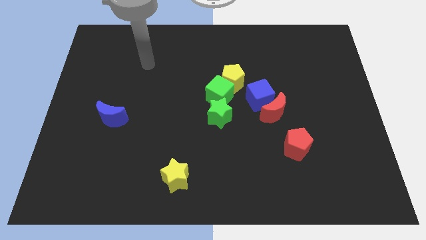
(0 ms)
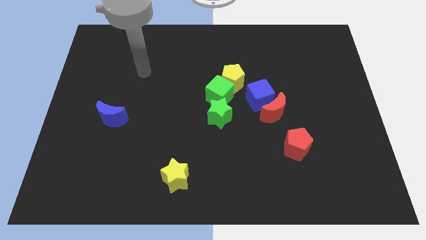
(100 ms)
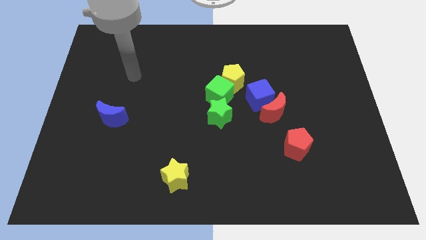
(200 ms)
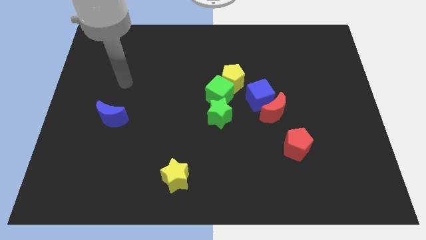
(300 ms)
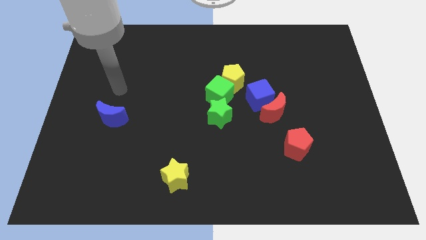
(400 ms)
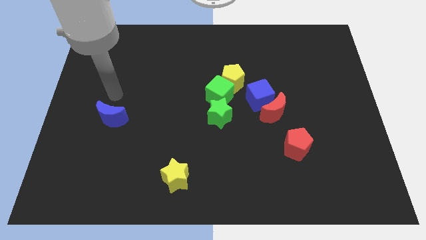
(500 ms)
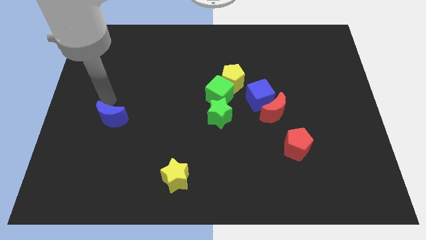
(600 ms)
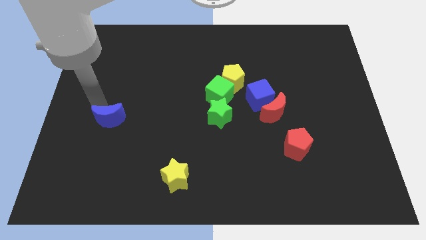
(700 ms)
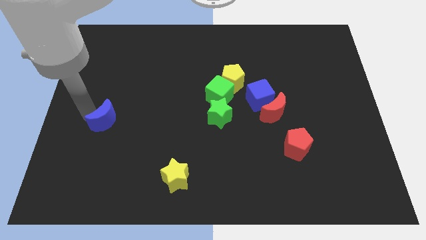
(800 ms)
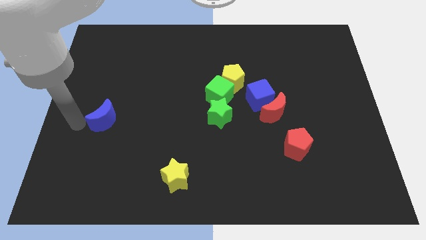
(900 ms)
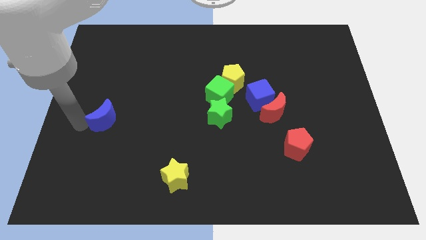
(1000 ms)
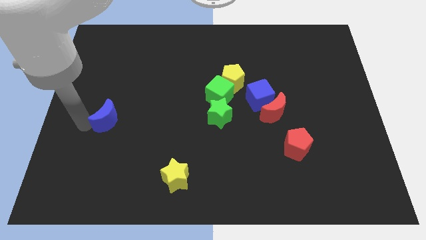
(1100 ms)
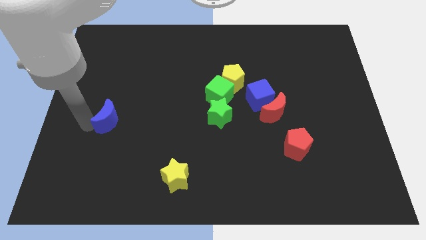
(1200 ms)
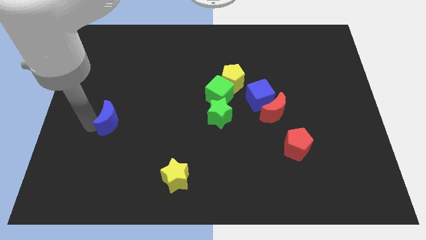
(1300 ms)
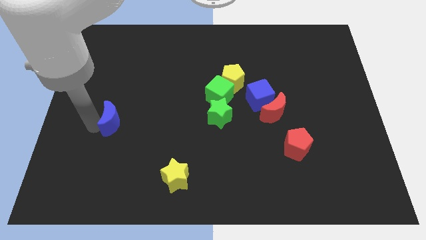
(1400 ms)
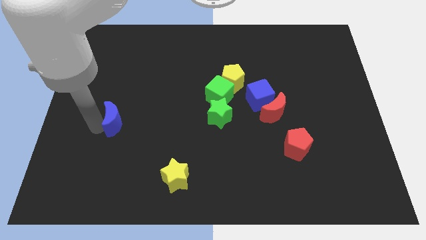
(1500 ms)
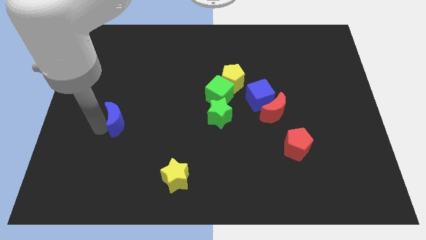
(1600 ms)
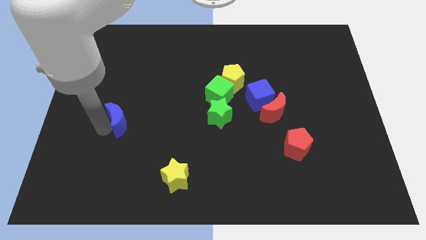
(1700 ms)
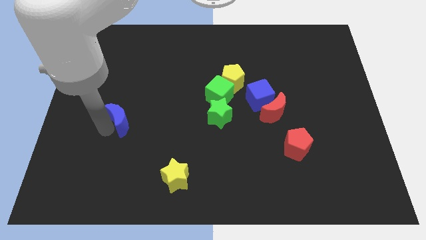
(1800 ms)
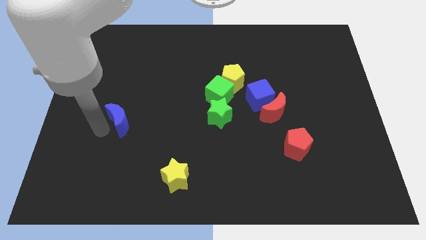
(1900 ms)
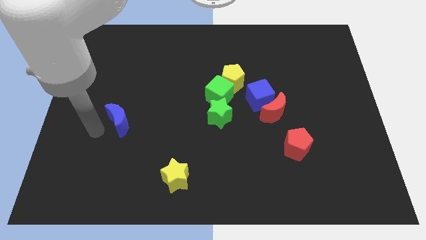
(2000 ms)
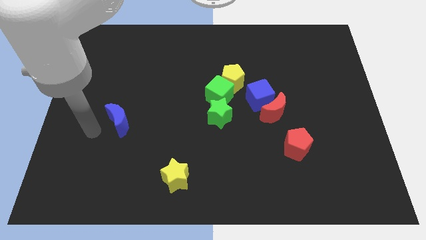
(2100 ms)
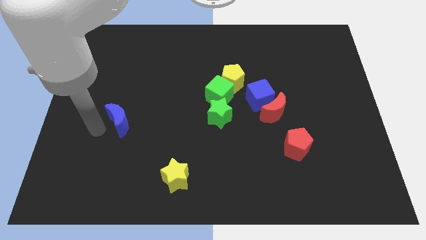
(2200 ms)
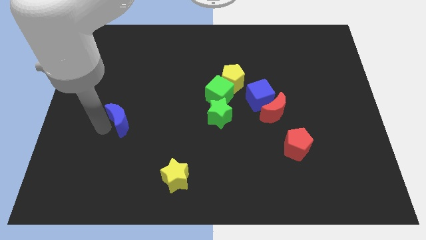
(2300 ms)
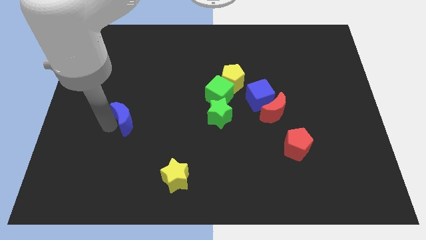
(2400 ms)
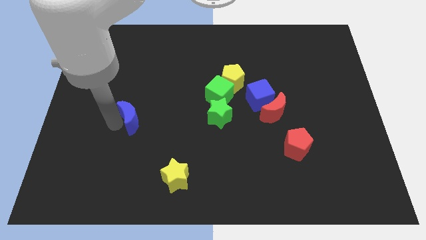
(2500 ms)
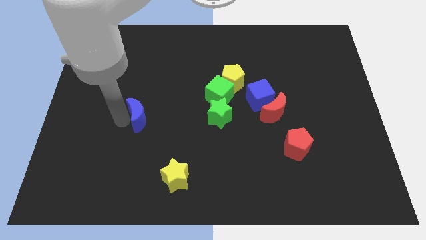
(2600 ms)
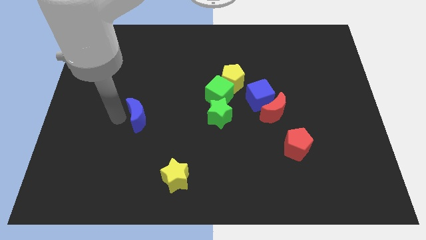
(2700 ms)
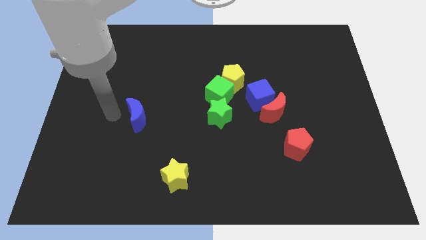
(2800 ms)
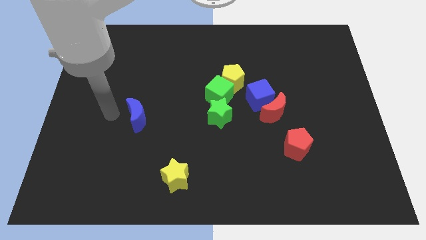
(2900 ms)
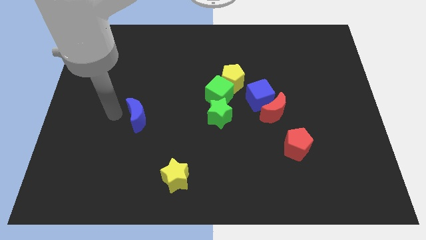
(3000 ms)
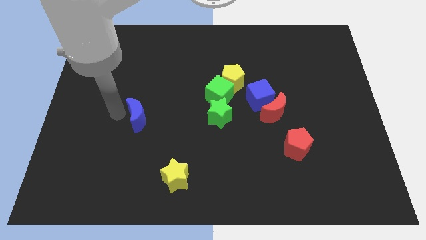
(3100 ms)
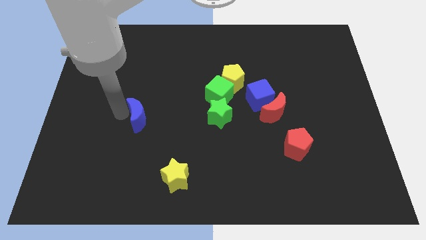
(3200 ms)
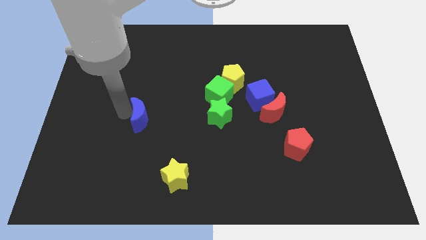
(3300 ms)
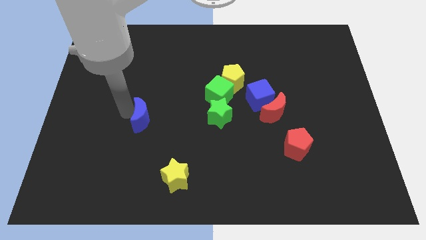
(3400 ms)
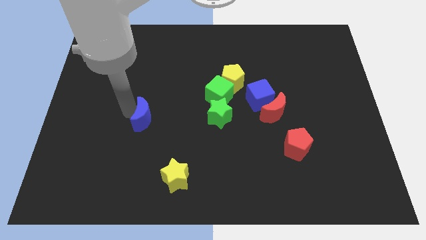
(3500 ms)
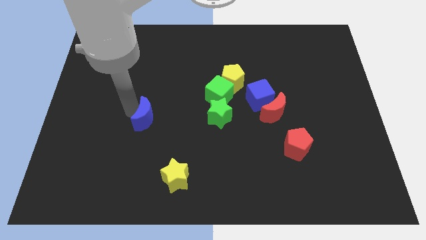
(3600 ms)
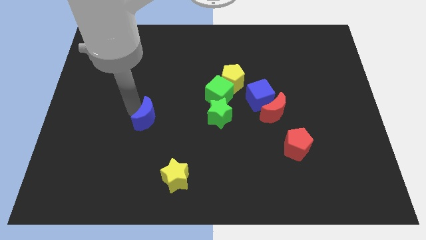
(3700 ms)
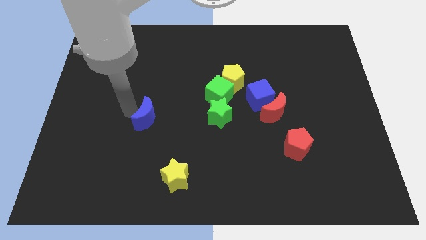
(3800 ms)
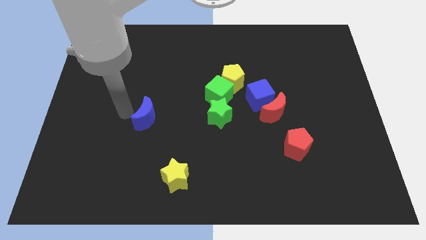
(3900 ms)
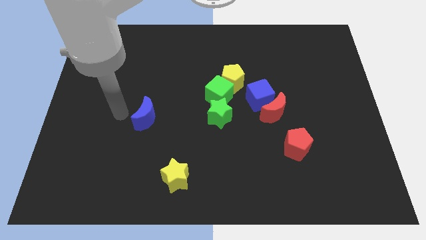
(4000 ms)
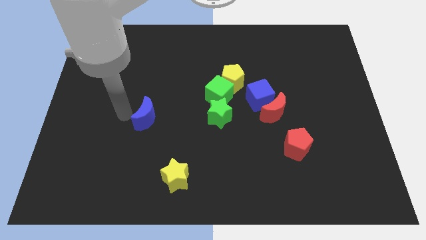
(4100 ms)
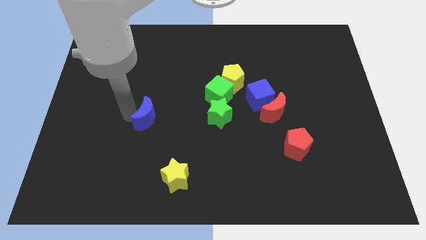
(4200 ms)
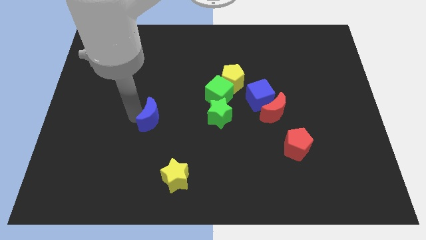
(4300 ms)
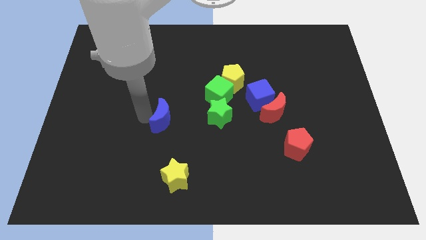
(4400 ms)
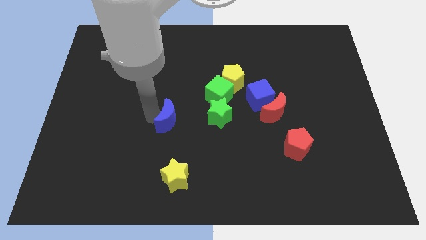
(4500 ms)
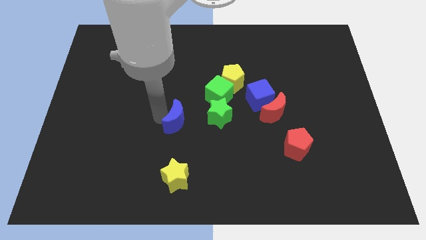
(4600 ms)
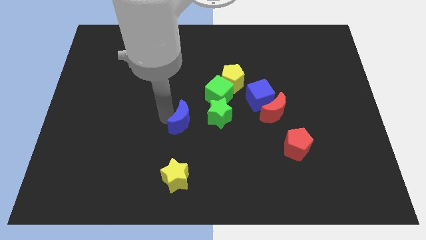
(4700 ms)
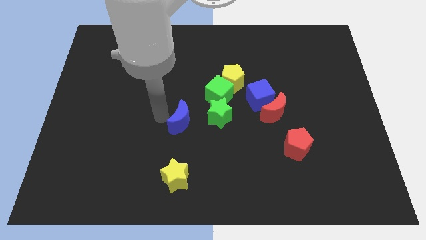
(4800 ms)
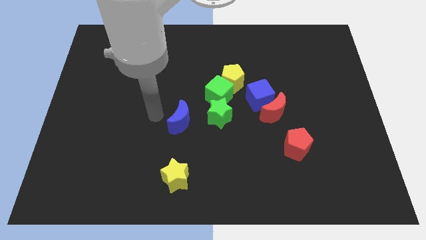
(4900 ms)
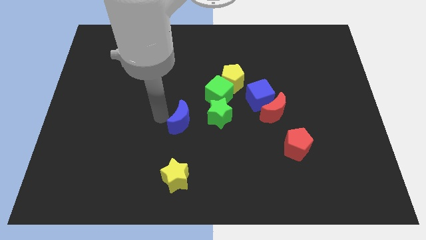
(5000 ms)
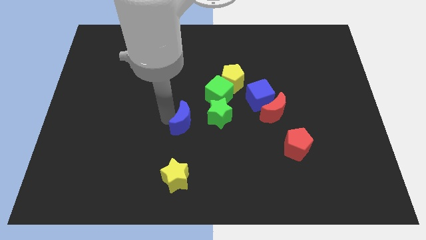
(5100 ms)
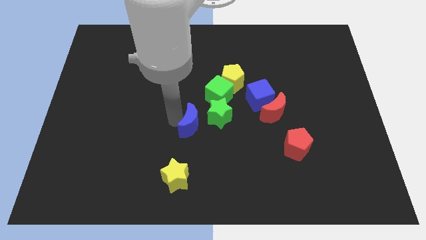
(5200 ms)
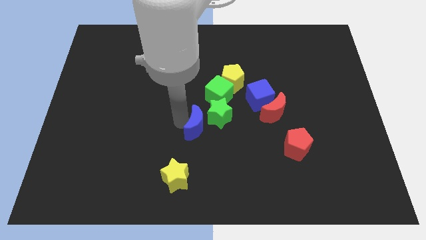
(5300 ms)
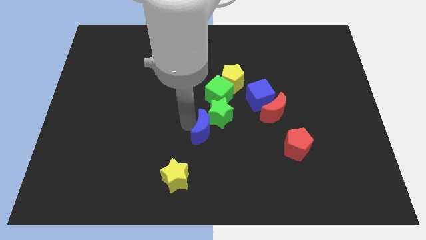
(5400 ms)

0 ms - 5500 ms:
slide the blue moon right

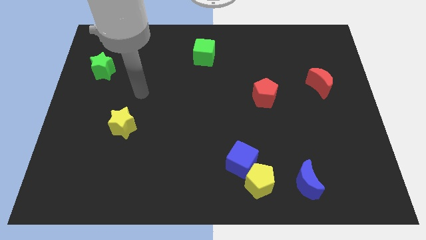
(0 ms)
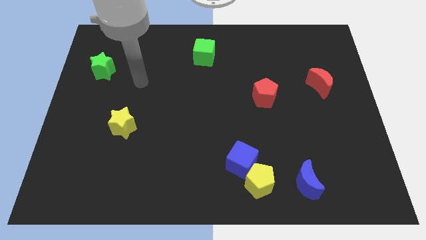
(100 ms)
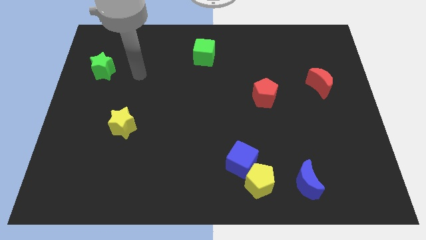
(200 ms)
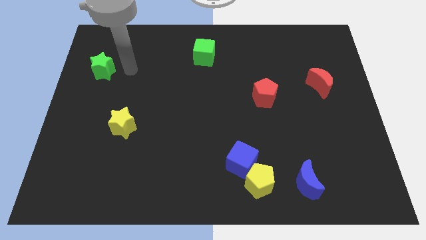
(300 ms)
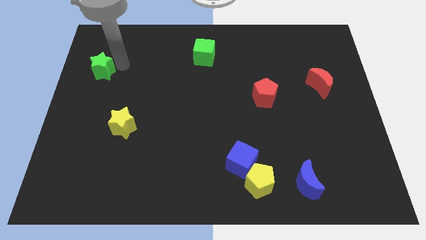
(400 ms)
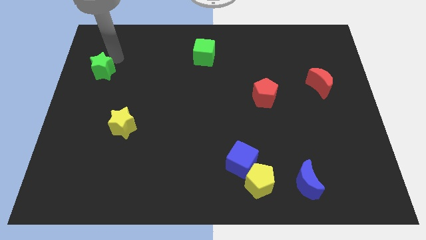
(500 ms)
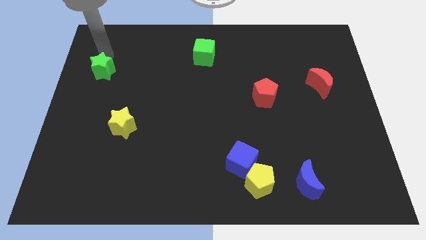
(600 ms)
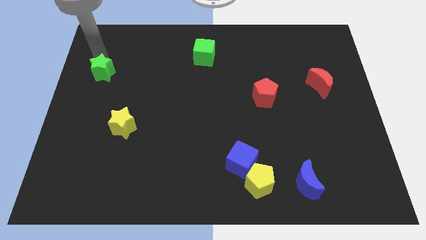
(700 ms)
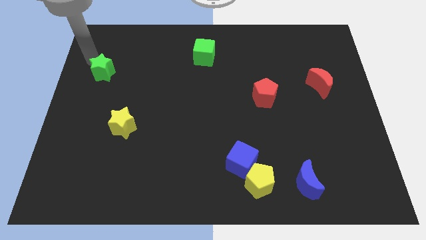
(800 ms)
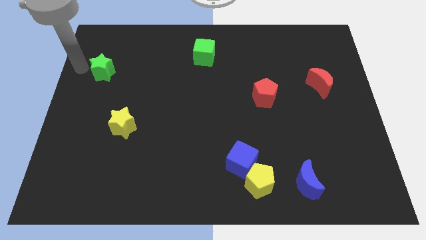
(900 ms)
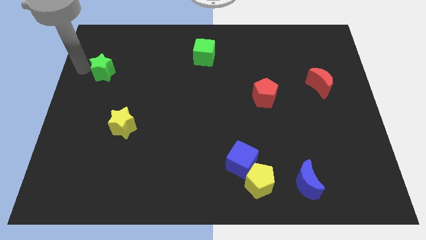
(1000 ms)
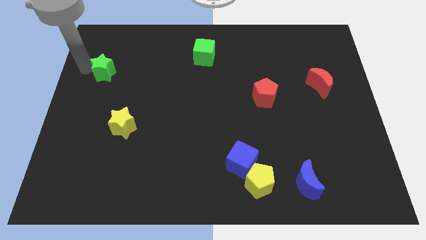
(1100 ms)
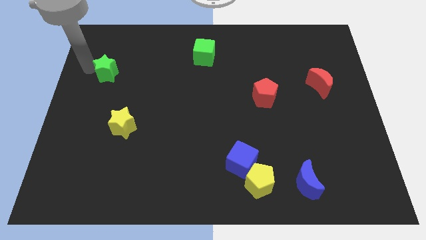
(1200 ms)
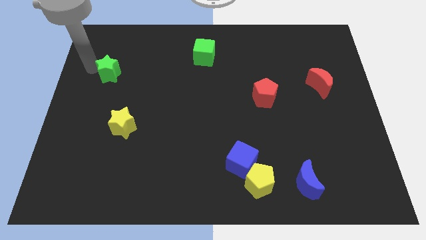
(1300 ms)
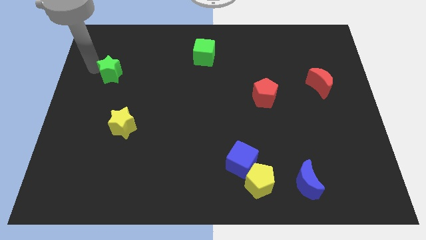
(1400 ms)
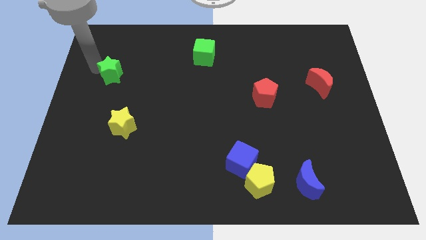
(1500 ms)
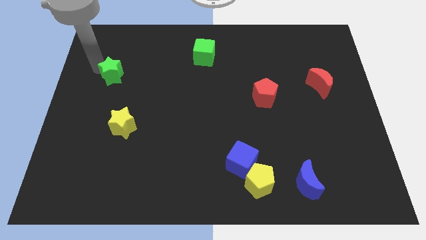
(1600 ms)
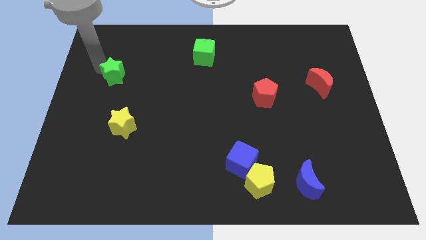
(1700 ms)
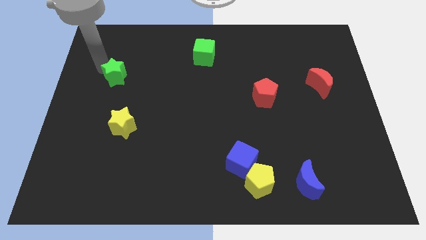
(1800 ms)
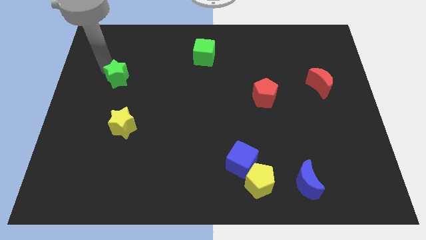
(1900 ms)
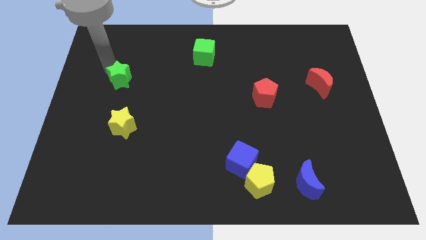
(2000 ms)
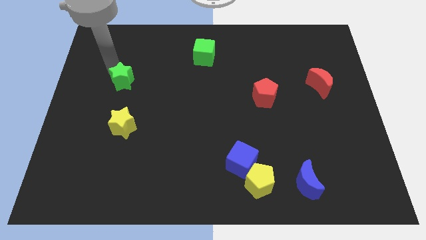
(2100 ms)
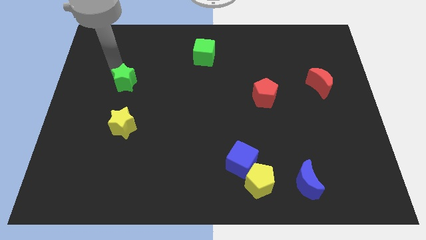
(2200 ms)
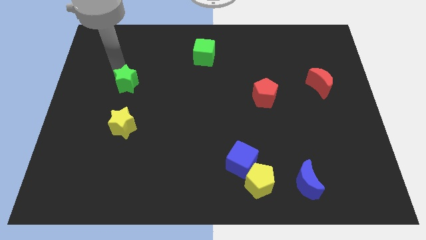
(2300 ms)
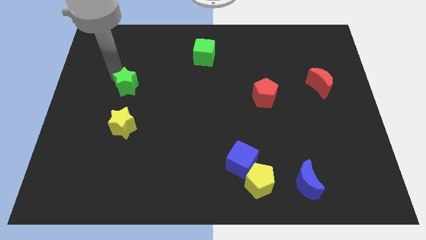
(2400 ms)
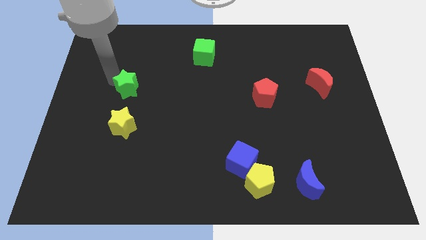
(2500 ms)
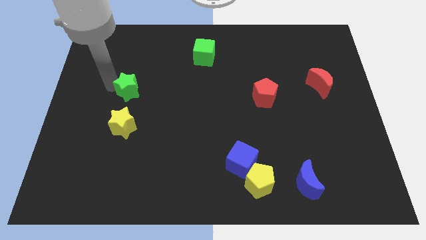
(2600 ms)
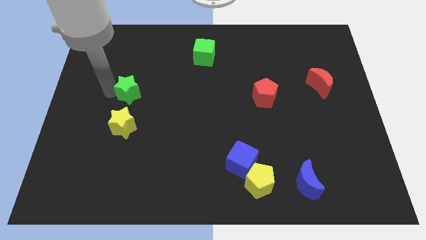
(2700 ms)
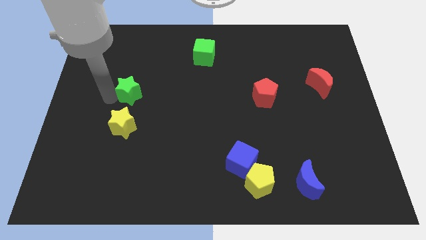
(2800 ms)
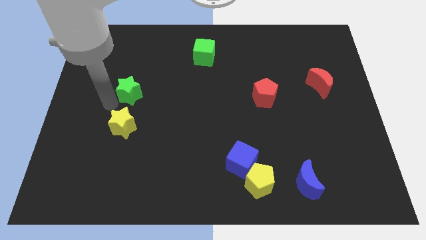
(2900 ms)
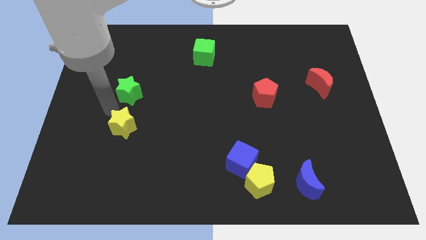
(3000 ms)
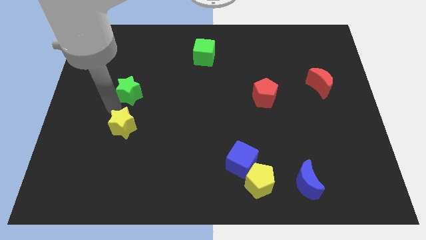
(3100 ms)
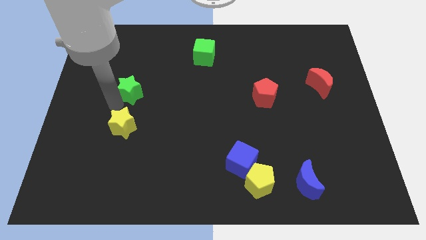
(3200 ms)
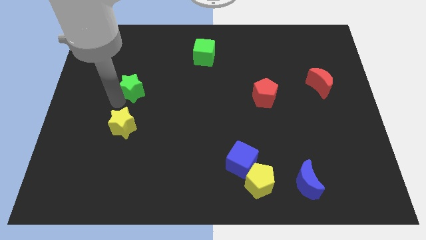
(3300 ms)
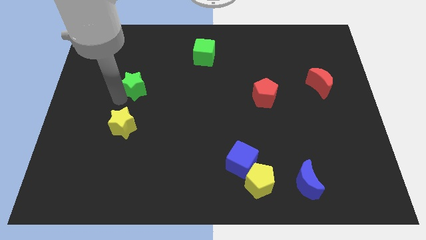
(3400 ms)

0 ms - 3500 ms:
slightly push the green star right
